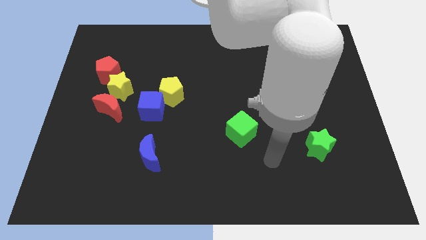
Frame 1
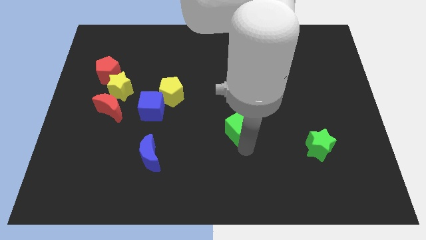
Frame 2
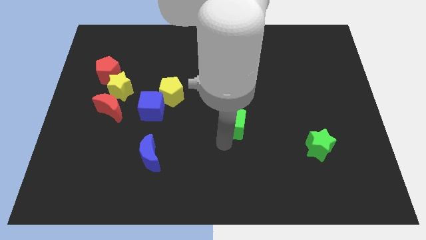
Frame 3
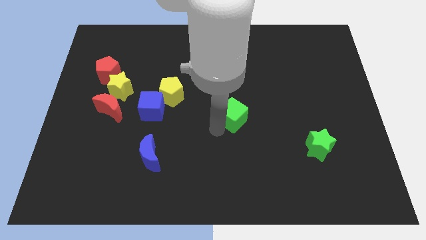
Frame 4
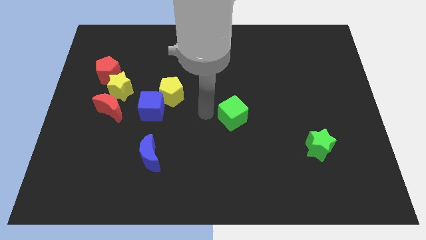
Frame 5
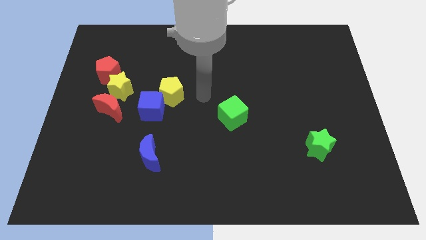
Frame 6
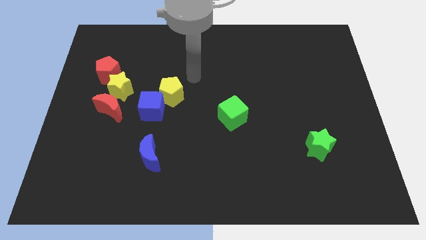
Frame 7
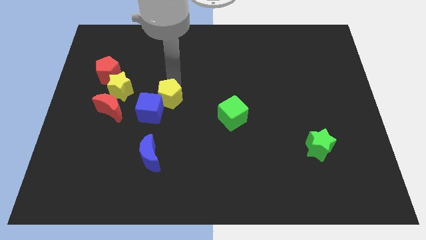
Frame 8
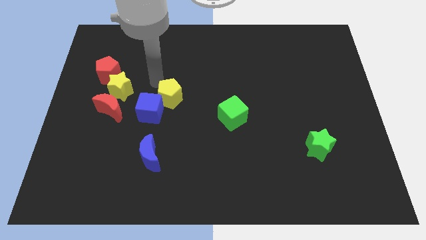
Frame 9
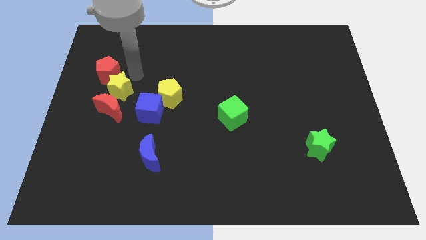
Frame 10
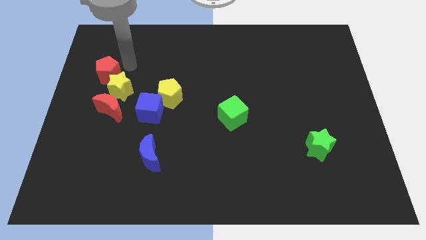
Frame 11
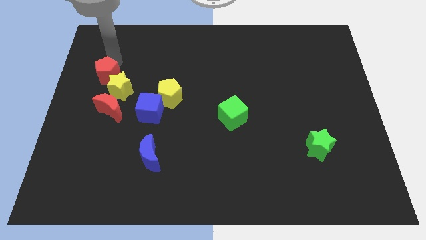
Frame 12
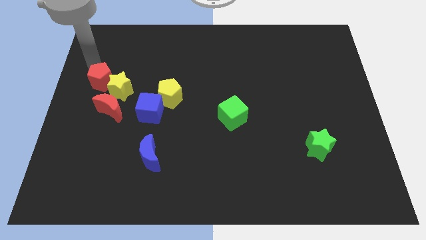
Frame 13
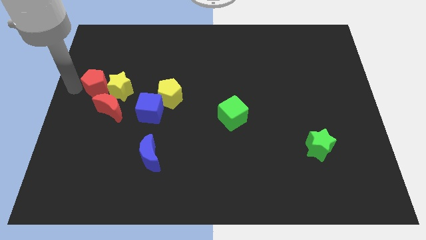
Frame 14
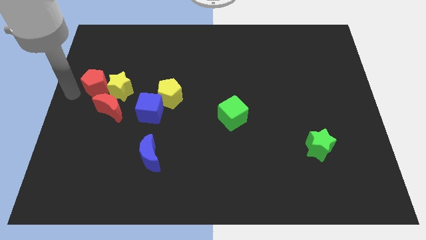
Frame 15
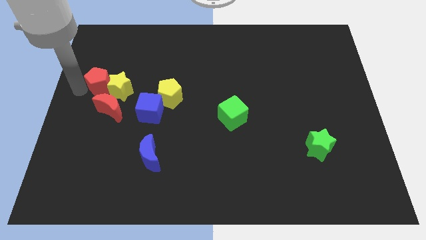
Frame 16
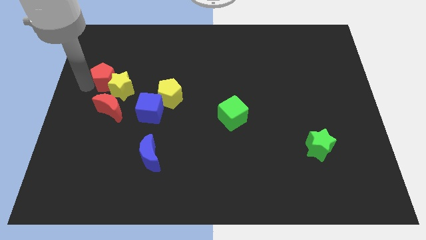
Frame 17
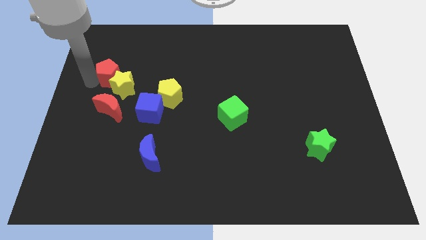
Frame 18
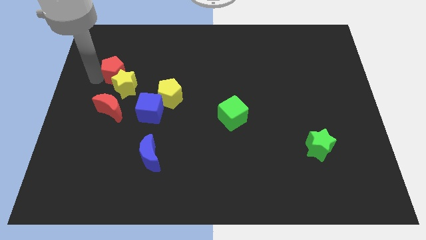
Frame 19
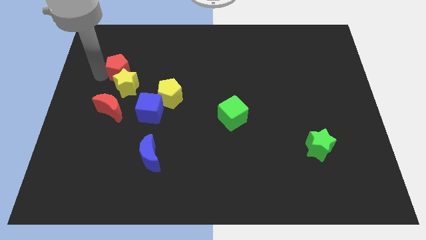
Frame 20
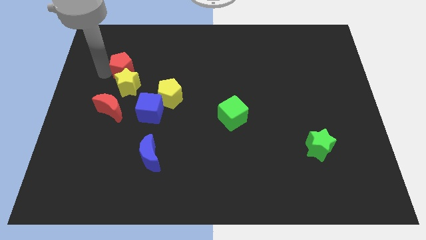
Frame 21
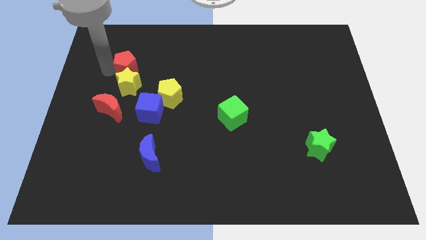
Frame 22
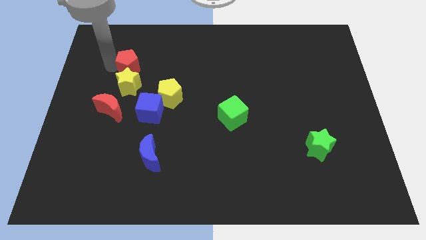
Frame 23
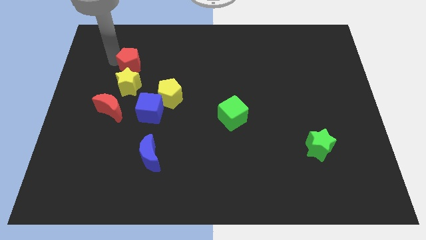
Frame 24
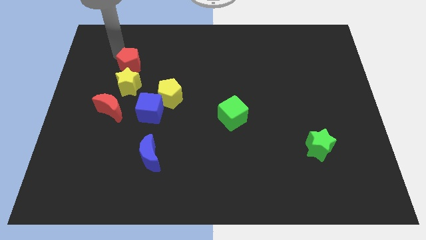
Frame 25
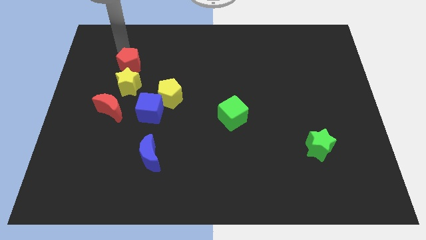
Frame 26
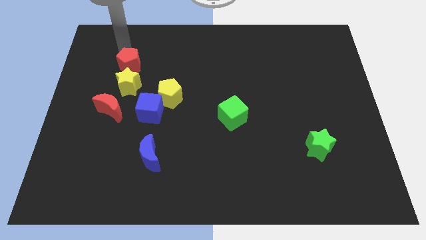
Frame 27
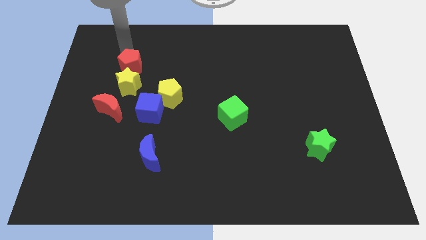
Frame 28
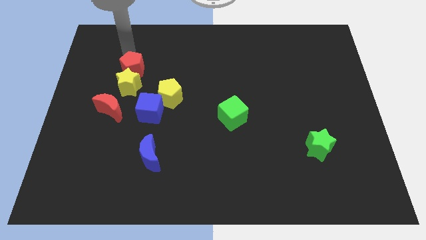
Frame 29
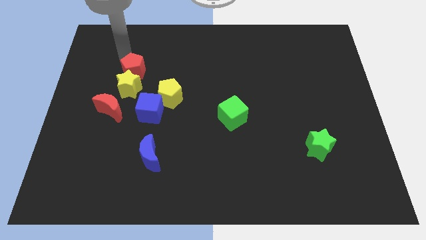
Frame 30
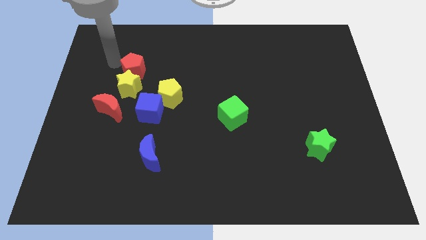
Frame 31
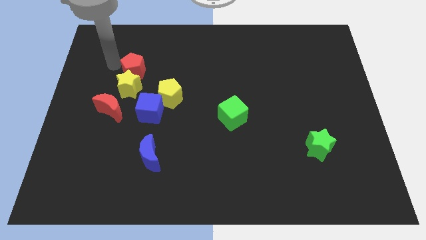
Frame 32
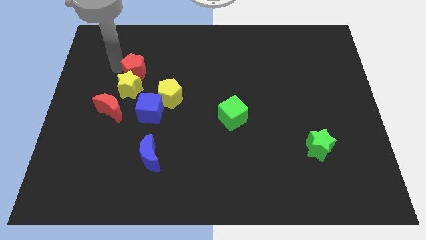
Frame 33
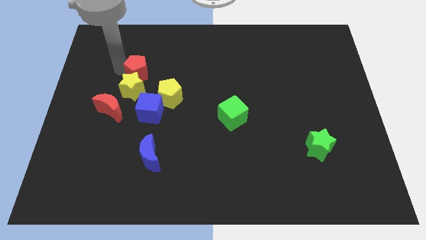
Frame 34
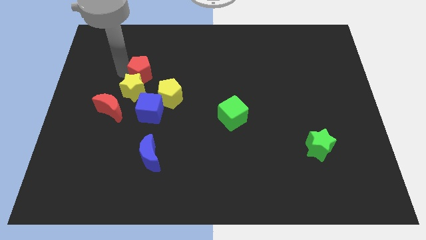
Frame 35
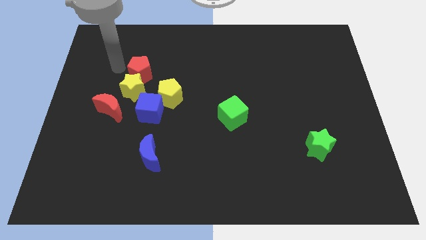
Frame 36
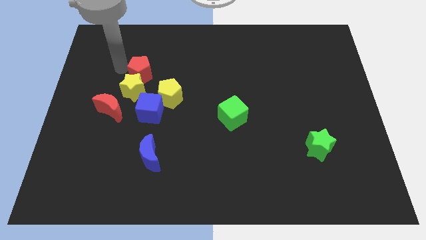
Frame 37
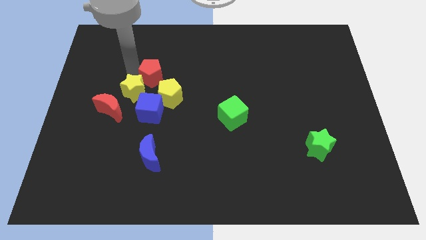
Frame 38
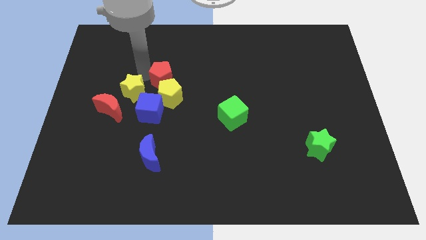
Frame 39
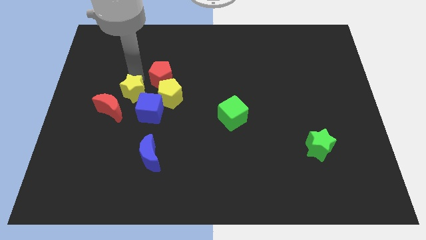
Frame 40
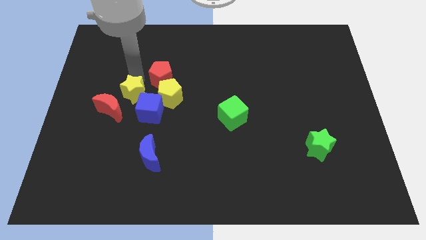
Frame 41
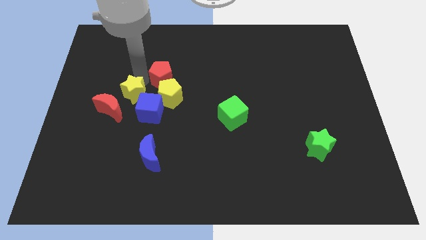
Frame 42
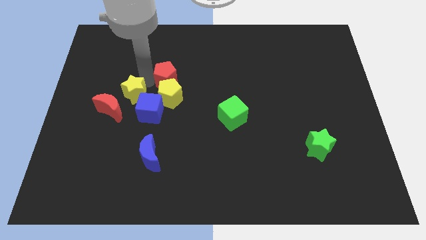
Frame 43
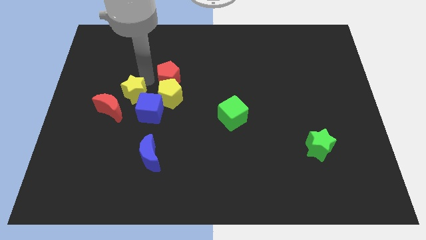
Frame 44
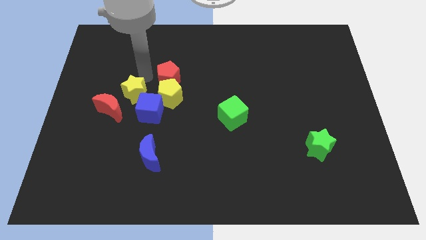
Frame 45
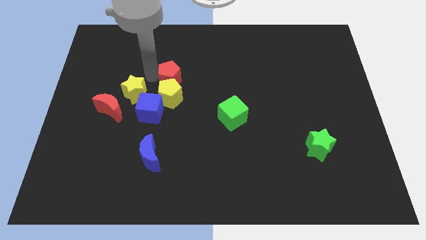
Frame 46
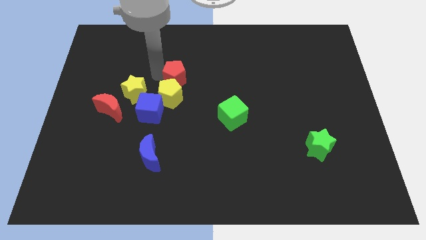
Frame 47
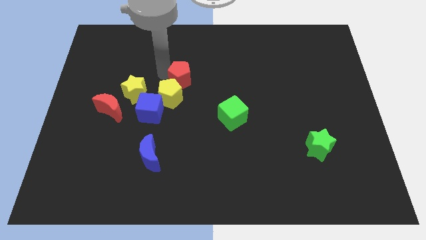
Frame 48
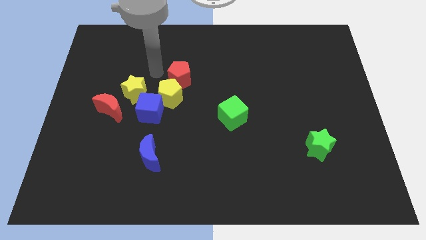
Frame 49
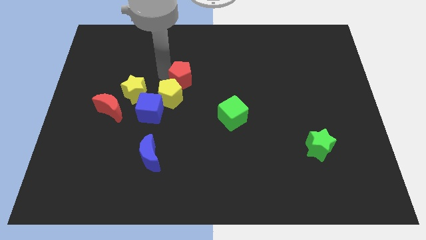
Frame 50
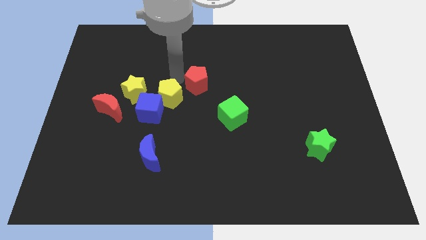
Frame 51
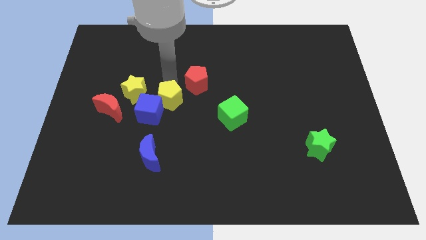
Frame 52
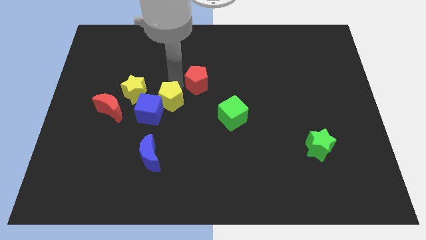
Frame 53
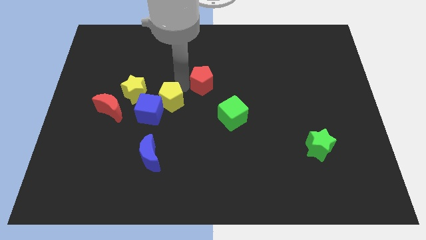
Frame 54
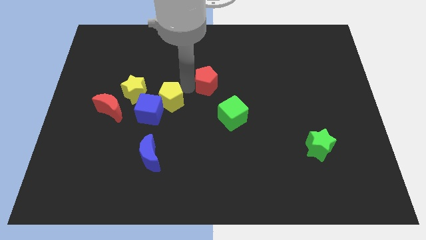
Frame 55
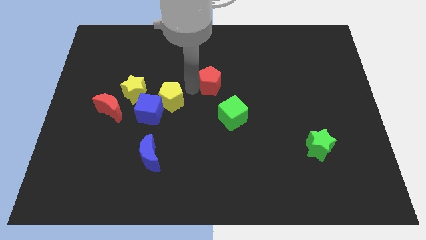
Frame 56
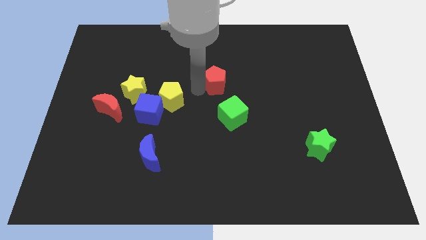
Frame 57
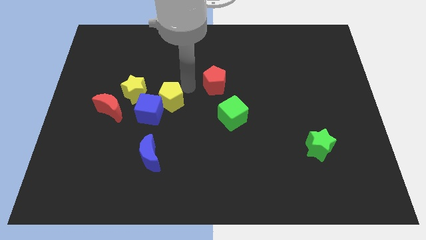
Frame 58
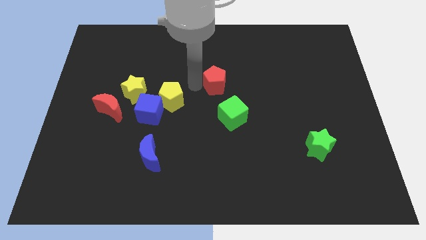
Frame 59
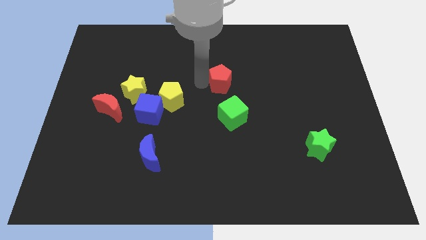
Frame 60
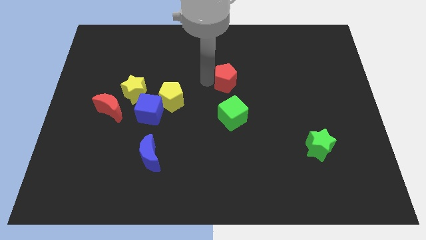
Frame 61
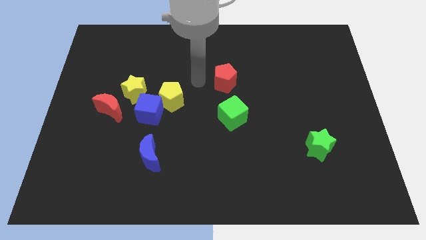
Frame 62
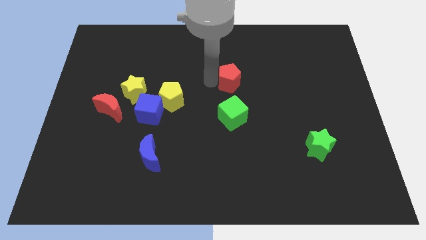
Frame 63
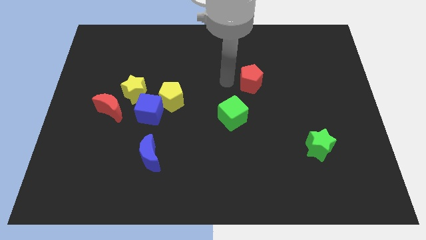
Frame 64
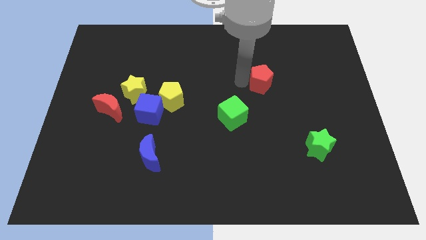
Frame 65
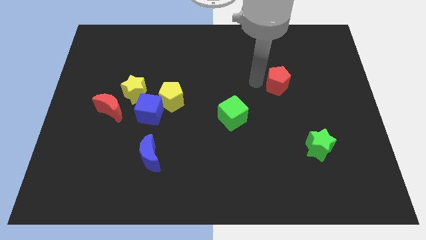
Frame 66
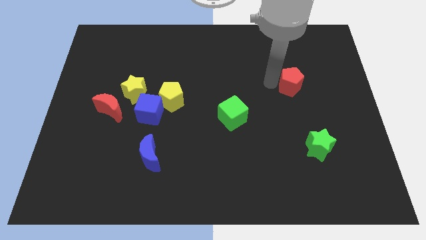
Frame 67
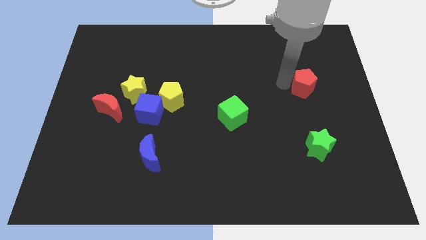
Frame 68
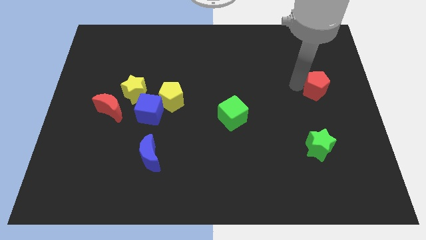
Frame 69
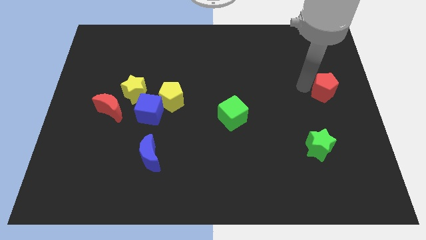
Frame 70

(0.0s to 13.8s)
slide the red pentagon to the center right

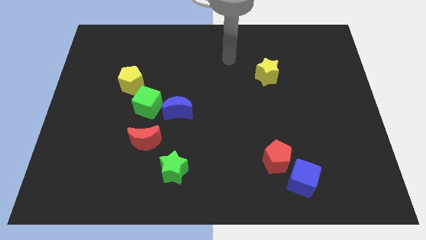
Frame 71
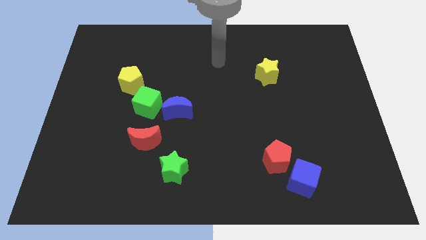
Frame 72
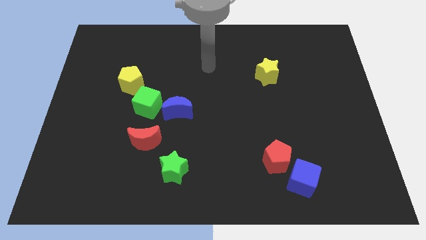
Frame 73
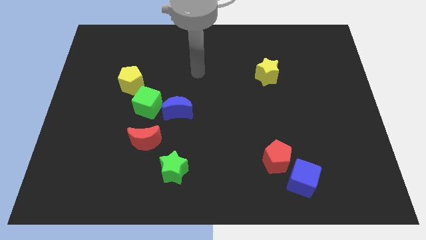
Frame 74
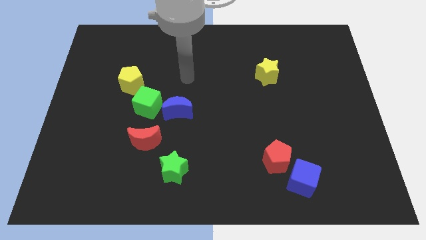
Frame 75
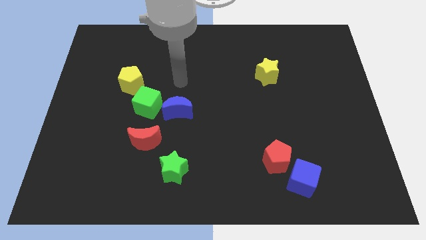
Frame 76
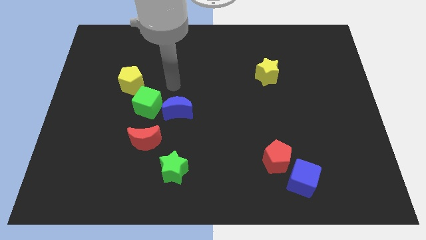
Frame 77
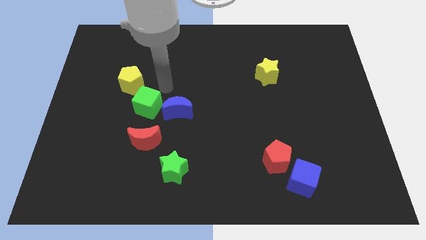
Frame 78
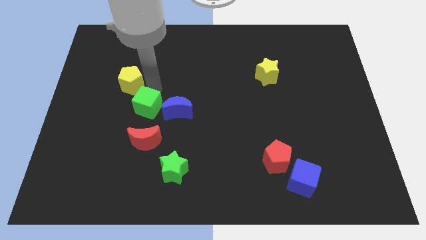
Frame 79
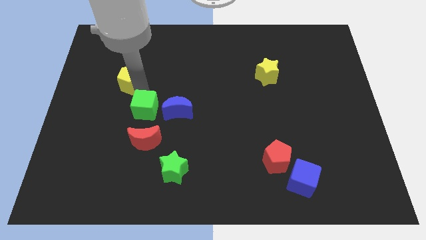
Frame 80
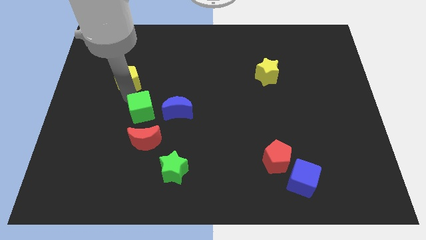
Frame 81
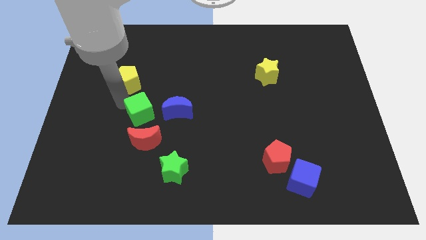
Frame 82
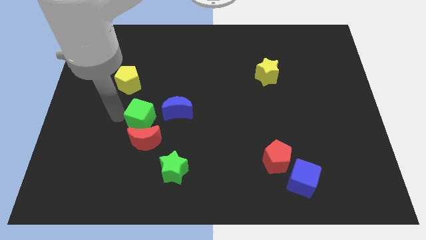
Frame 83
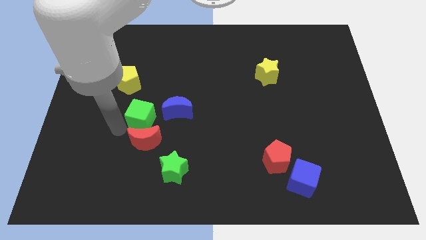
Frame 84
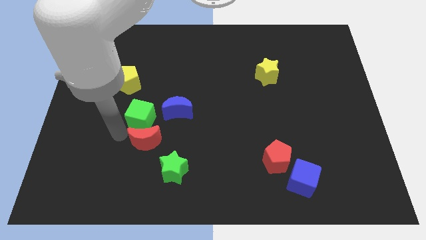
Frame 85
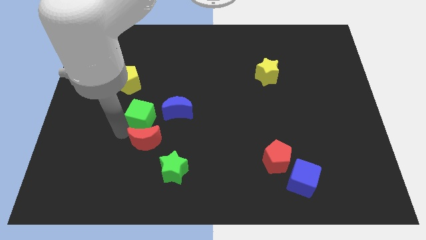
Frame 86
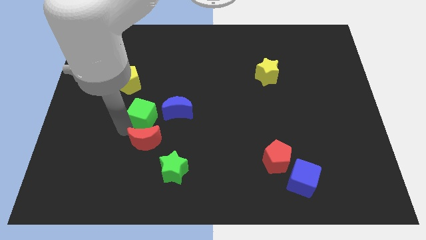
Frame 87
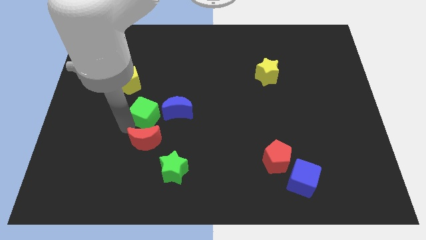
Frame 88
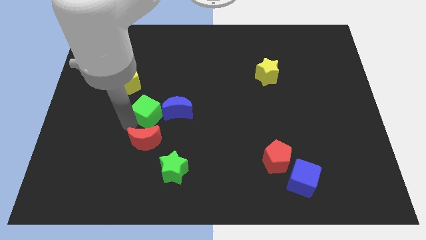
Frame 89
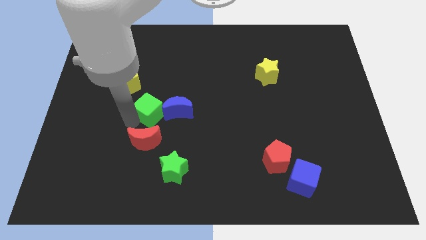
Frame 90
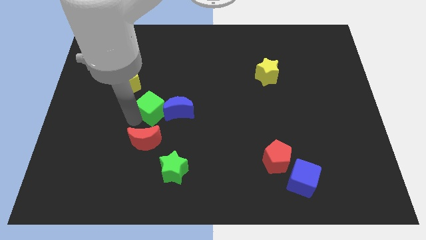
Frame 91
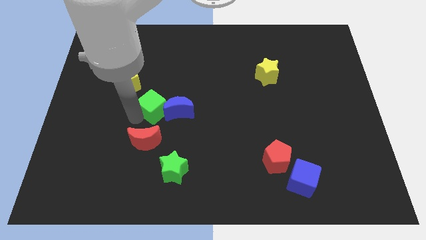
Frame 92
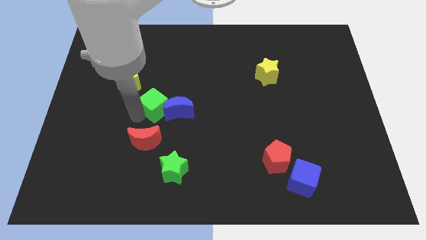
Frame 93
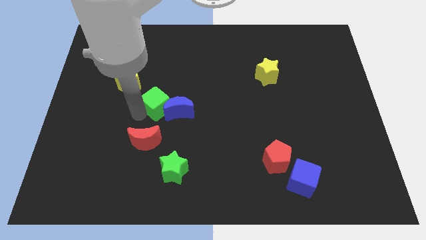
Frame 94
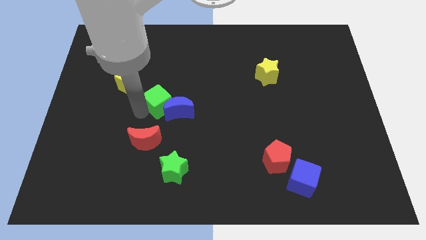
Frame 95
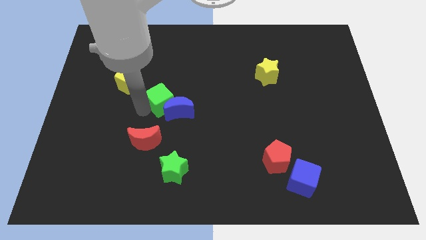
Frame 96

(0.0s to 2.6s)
put the green cube to the center
